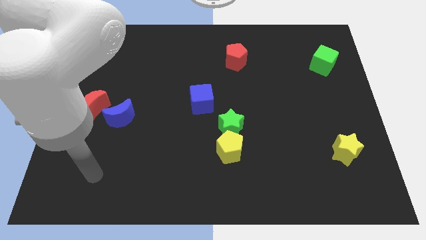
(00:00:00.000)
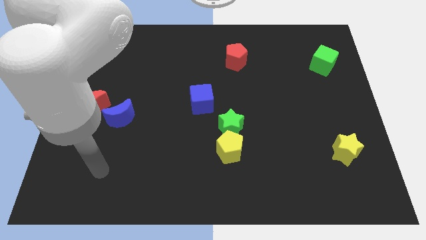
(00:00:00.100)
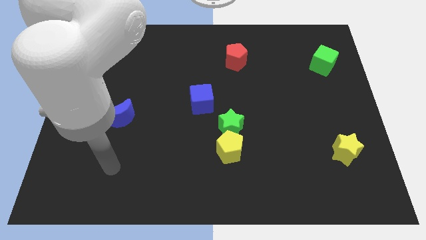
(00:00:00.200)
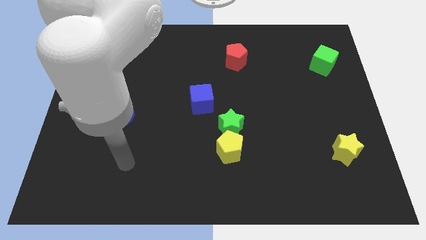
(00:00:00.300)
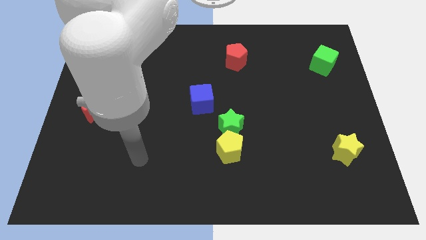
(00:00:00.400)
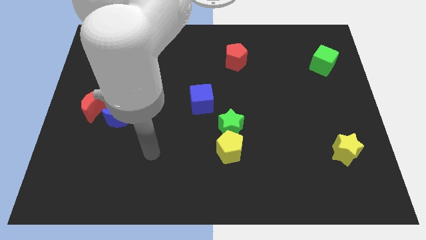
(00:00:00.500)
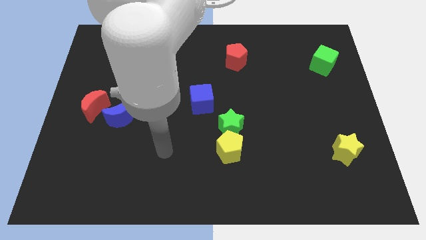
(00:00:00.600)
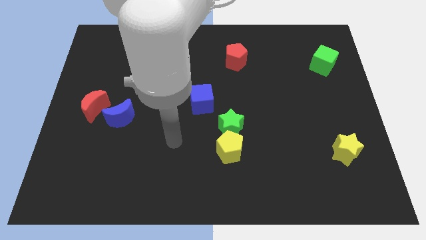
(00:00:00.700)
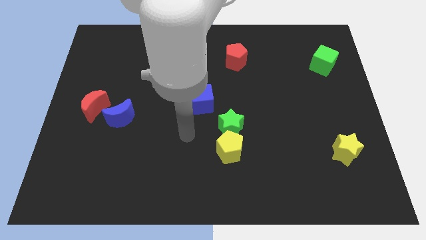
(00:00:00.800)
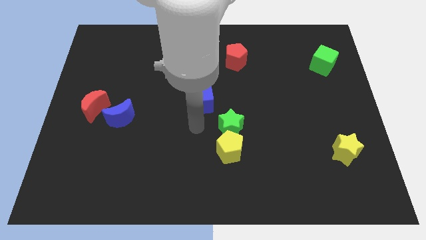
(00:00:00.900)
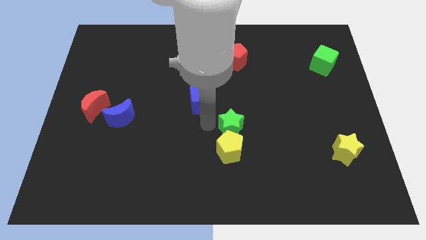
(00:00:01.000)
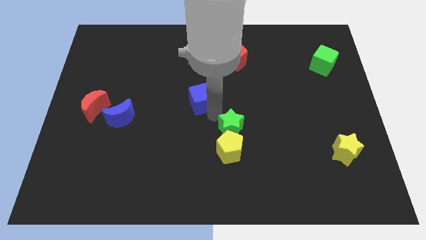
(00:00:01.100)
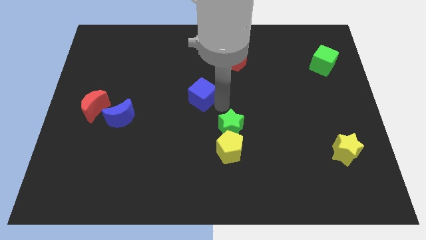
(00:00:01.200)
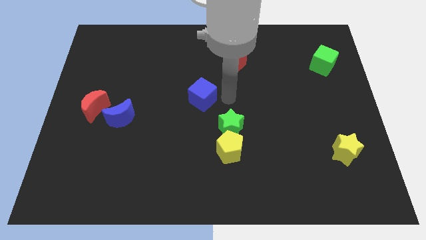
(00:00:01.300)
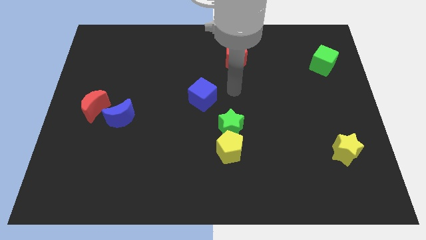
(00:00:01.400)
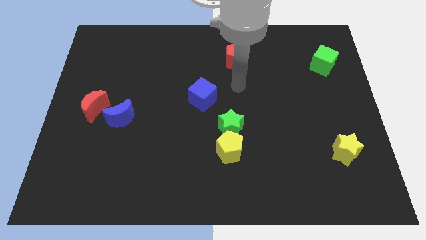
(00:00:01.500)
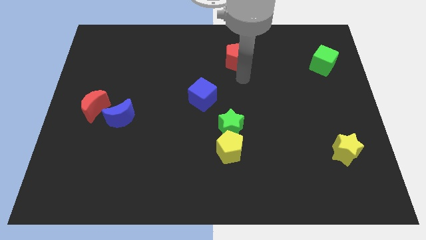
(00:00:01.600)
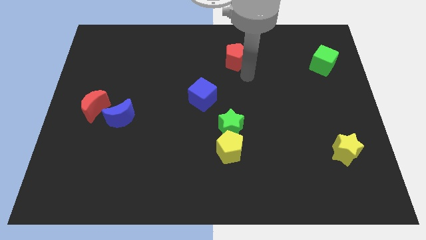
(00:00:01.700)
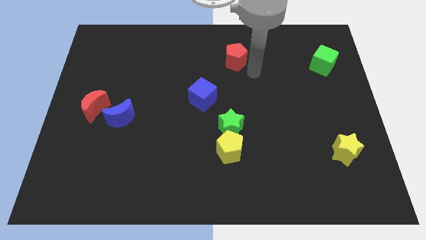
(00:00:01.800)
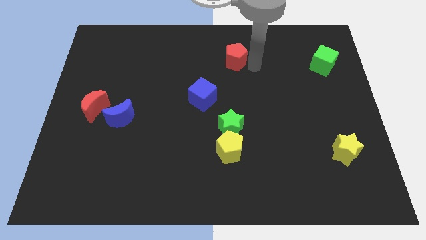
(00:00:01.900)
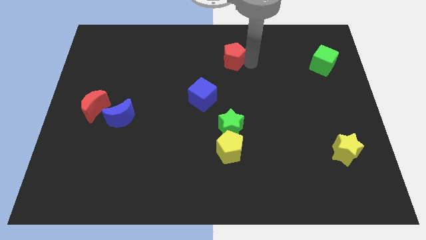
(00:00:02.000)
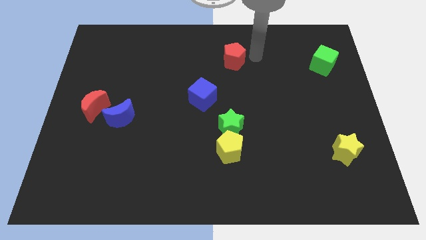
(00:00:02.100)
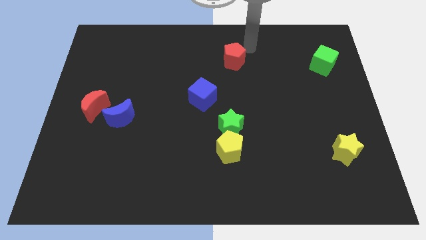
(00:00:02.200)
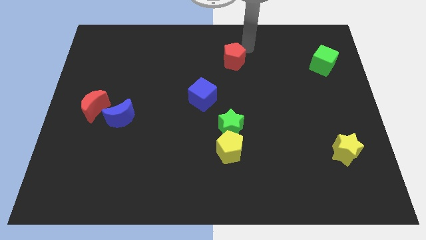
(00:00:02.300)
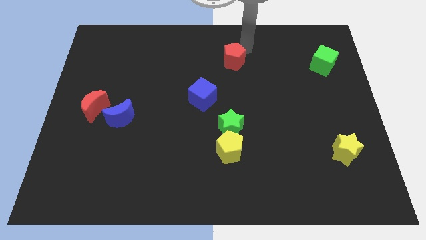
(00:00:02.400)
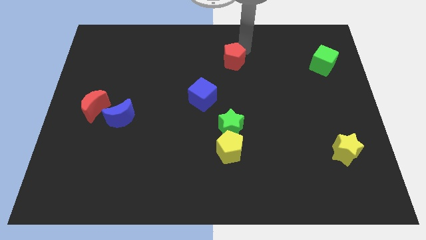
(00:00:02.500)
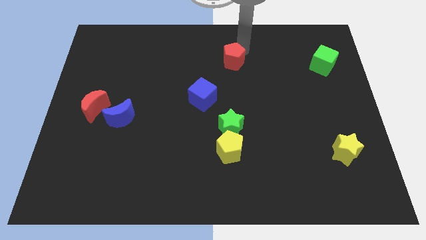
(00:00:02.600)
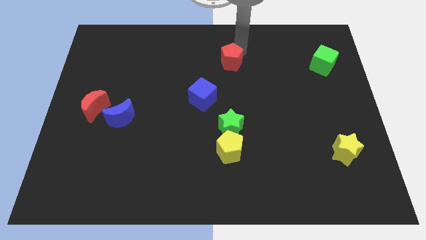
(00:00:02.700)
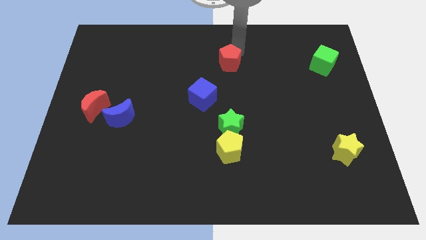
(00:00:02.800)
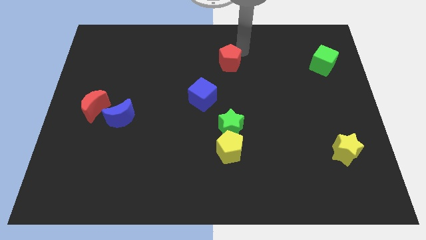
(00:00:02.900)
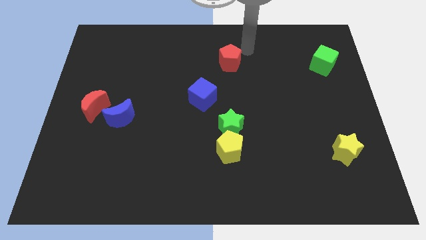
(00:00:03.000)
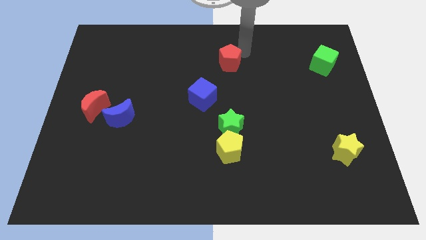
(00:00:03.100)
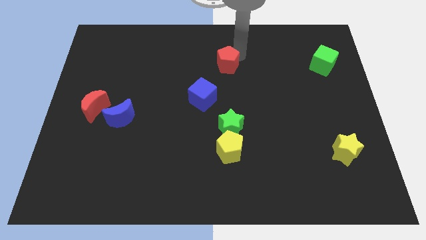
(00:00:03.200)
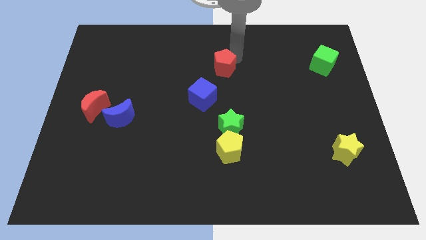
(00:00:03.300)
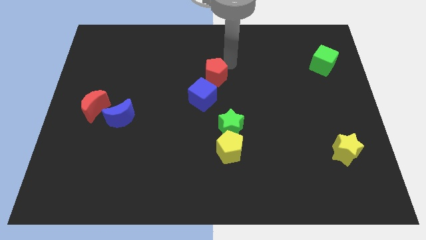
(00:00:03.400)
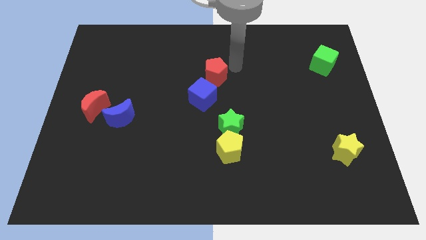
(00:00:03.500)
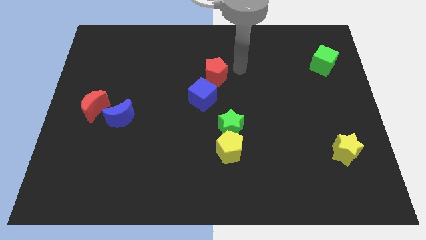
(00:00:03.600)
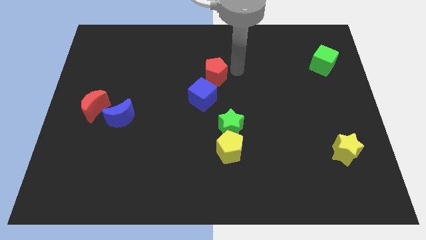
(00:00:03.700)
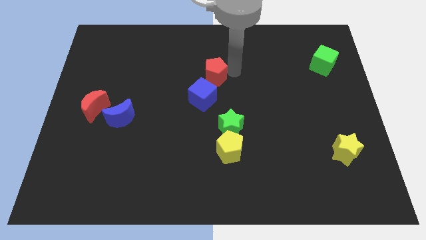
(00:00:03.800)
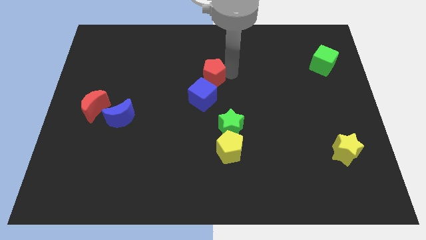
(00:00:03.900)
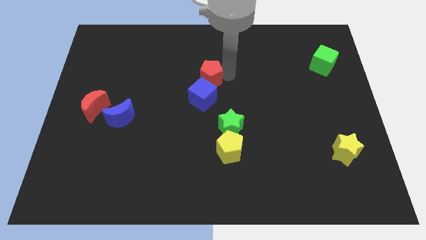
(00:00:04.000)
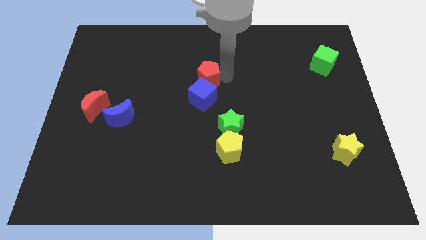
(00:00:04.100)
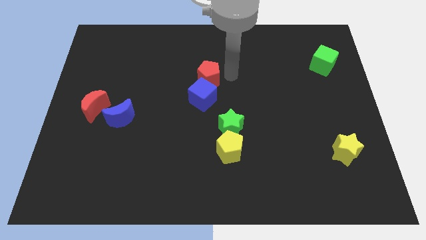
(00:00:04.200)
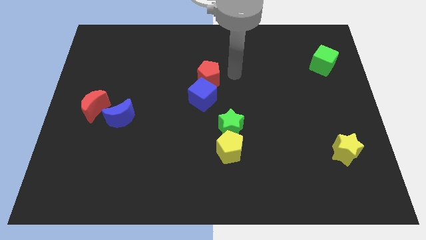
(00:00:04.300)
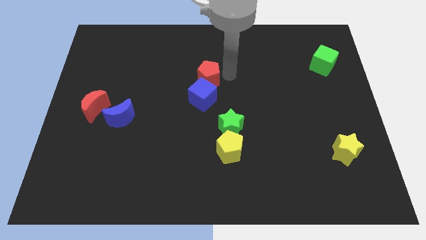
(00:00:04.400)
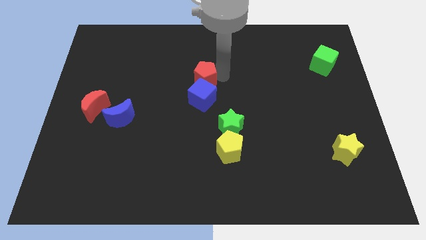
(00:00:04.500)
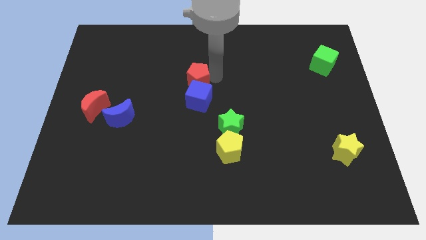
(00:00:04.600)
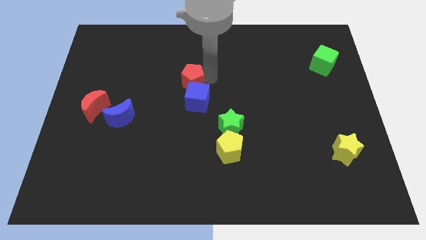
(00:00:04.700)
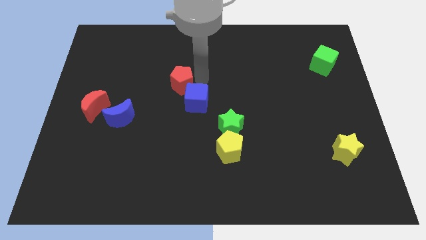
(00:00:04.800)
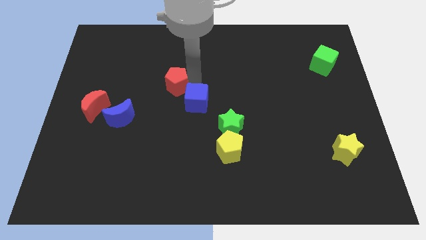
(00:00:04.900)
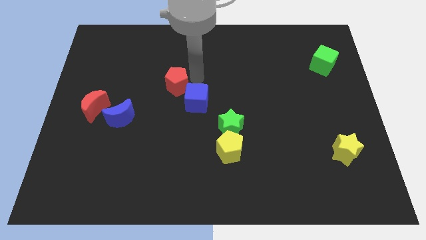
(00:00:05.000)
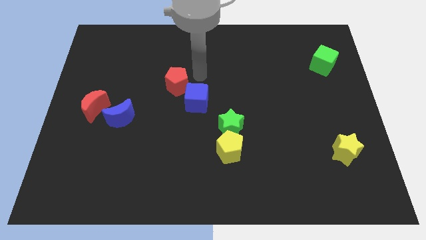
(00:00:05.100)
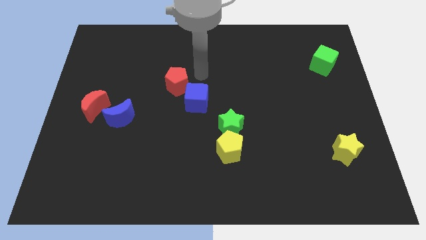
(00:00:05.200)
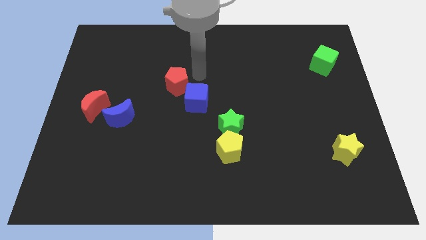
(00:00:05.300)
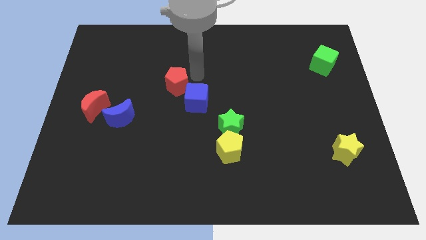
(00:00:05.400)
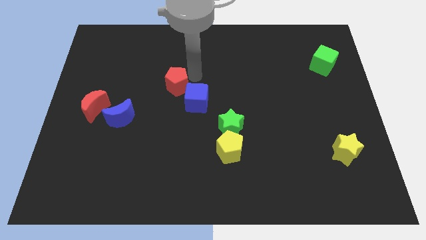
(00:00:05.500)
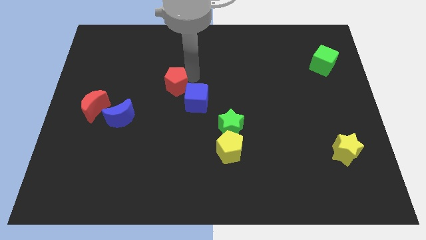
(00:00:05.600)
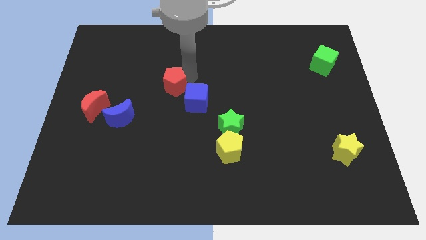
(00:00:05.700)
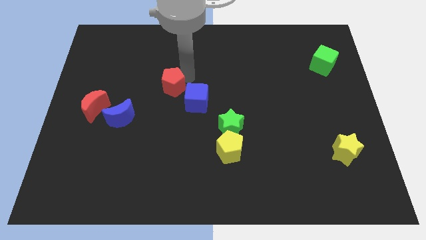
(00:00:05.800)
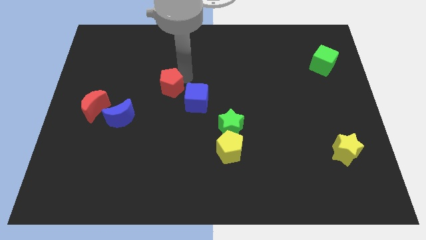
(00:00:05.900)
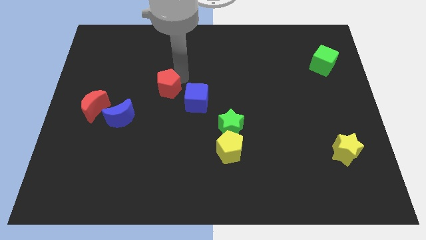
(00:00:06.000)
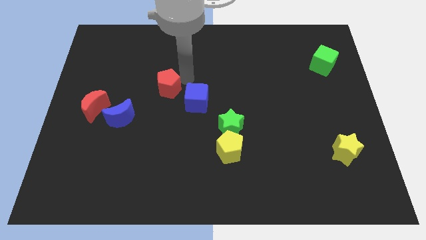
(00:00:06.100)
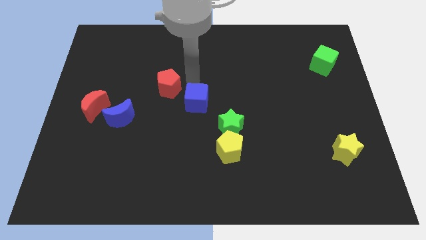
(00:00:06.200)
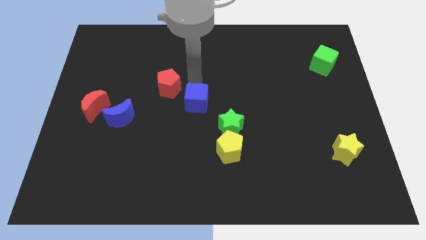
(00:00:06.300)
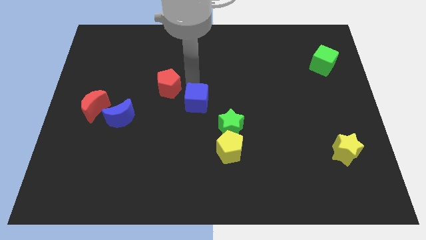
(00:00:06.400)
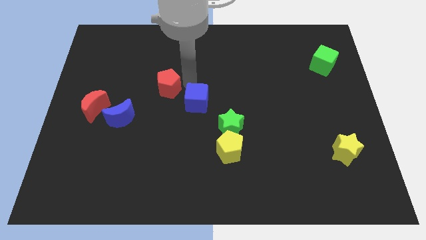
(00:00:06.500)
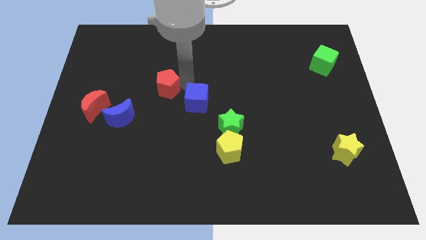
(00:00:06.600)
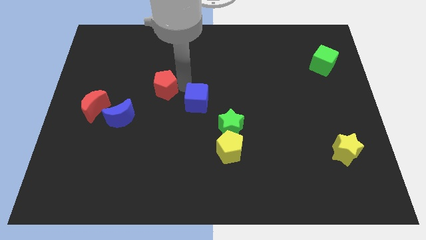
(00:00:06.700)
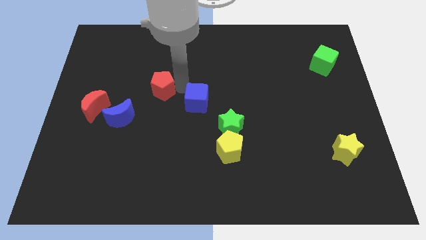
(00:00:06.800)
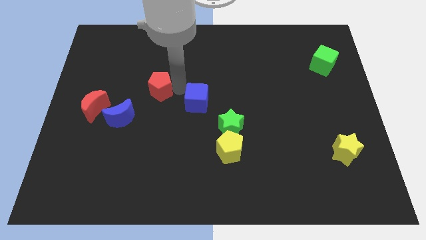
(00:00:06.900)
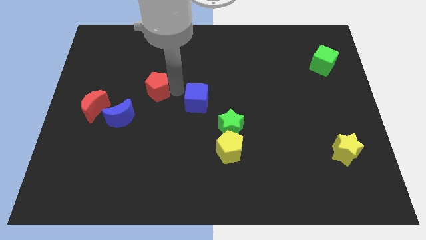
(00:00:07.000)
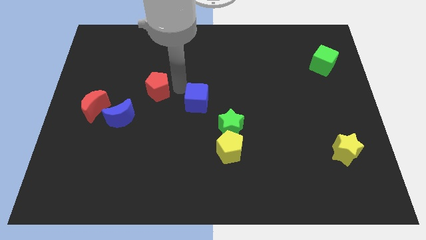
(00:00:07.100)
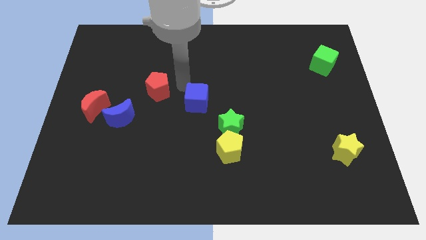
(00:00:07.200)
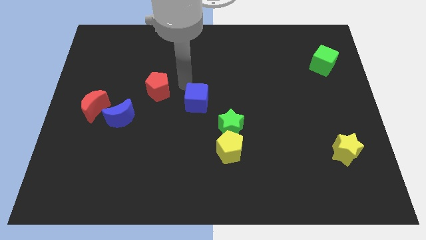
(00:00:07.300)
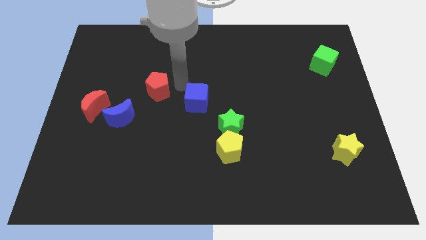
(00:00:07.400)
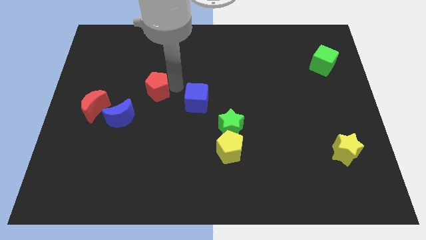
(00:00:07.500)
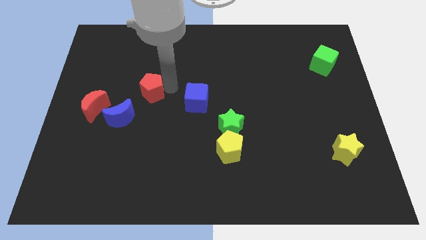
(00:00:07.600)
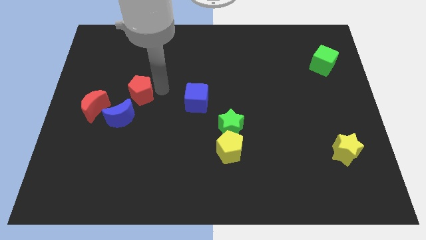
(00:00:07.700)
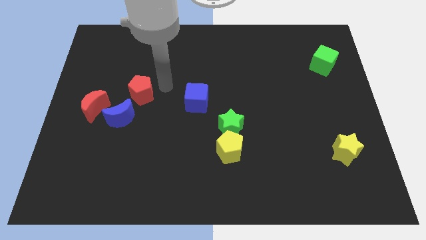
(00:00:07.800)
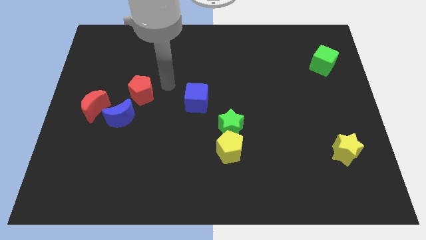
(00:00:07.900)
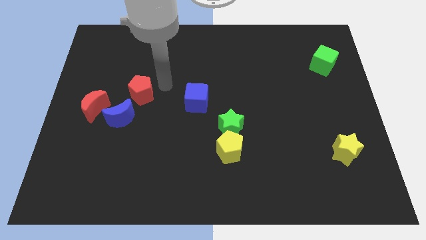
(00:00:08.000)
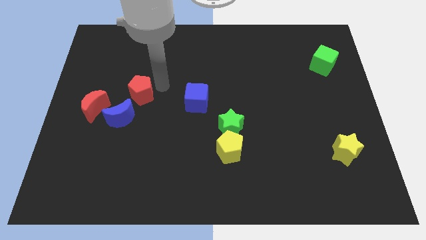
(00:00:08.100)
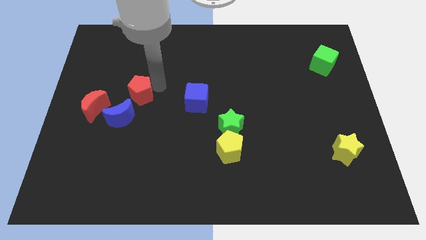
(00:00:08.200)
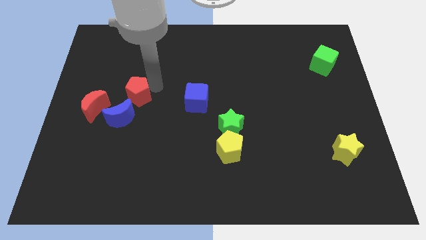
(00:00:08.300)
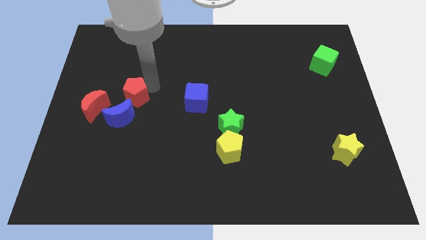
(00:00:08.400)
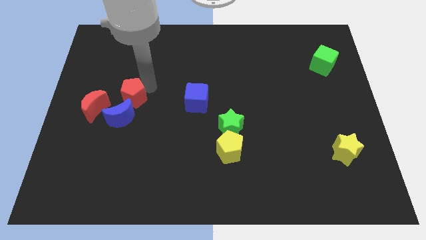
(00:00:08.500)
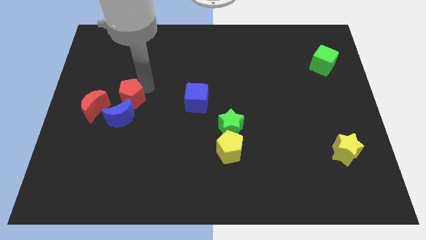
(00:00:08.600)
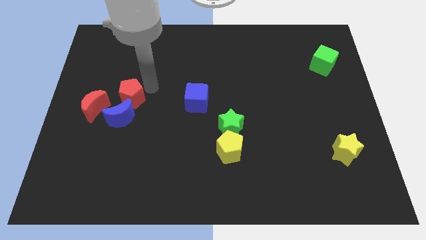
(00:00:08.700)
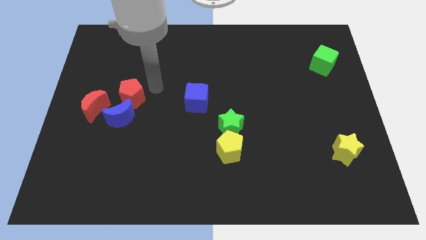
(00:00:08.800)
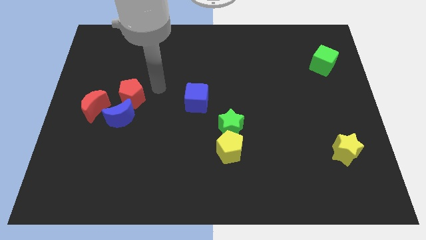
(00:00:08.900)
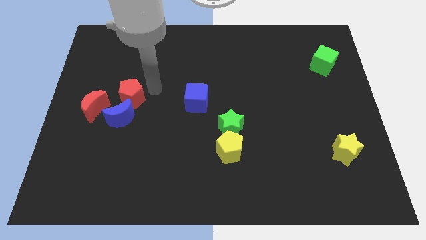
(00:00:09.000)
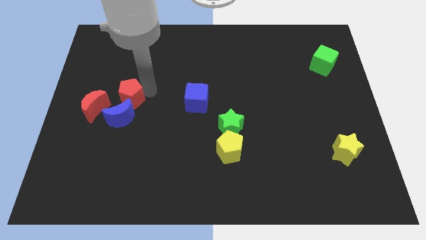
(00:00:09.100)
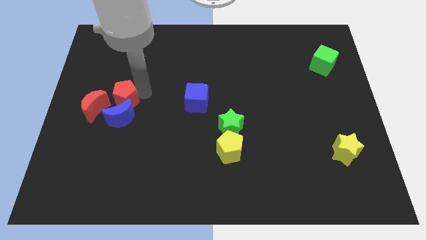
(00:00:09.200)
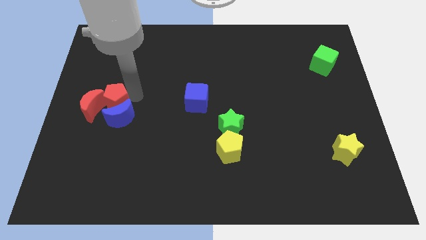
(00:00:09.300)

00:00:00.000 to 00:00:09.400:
slide the red pentagon close to the red moon
